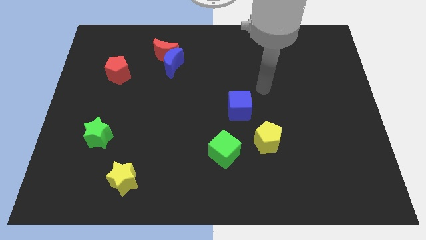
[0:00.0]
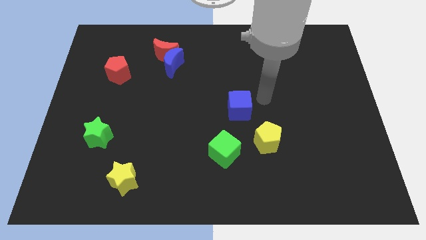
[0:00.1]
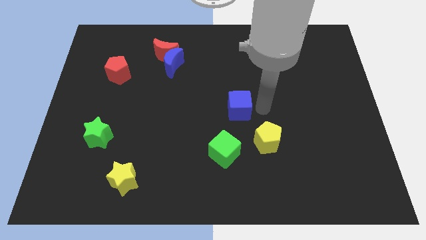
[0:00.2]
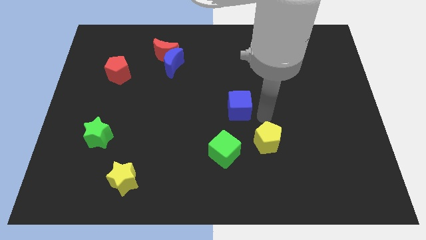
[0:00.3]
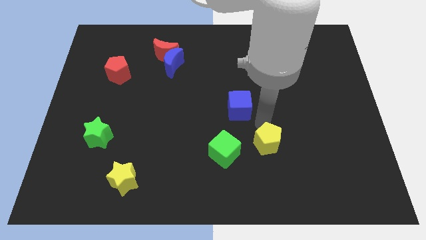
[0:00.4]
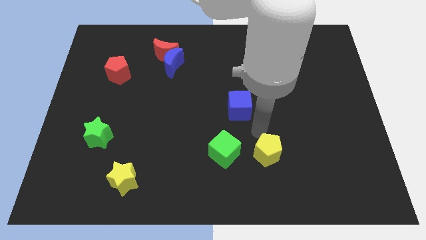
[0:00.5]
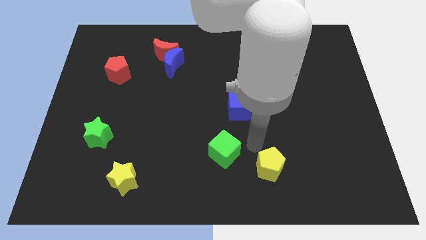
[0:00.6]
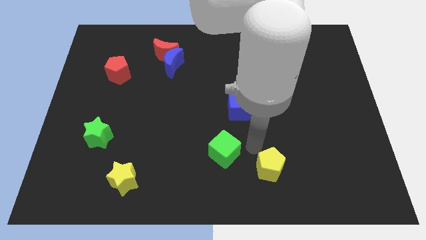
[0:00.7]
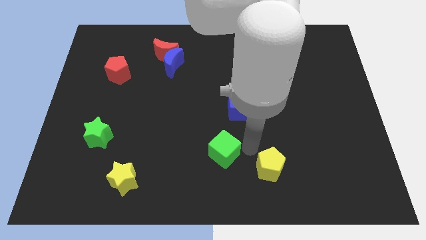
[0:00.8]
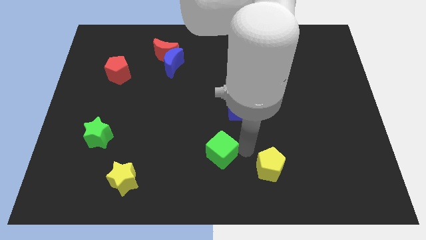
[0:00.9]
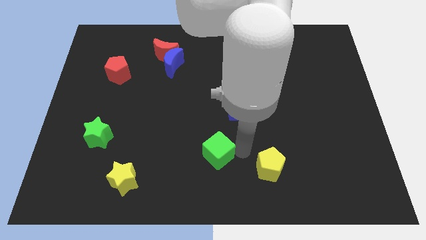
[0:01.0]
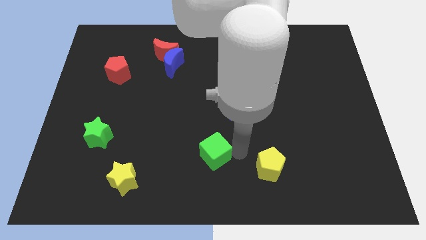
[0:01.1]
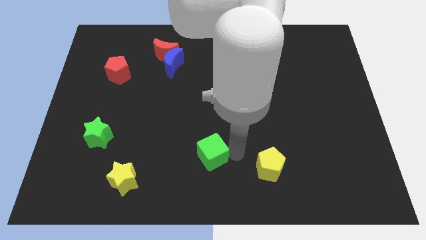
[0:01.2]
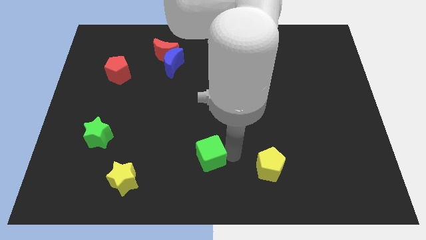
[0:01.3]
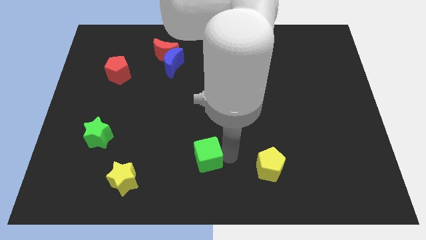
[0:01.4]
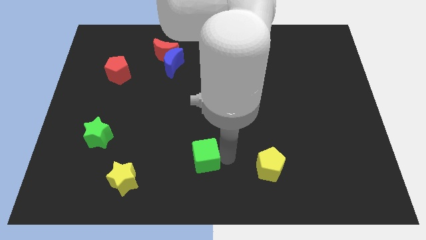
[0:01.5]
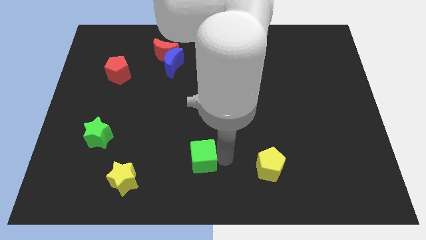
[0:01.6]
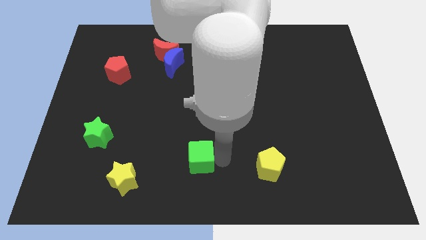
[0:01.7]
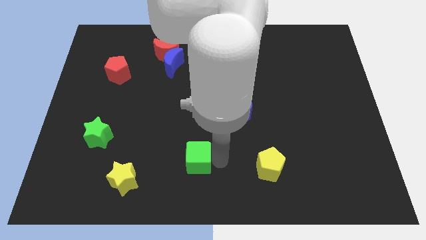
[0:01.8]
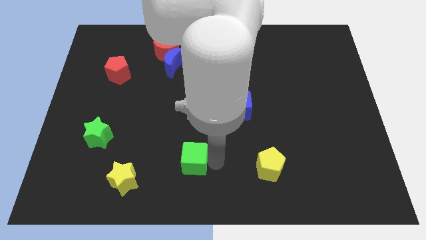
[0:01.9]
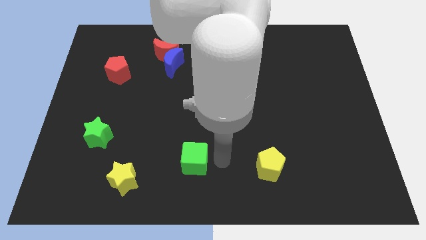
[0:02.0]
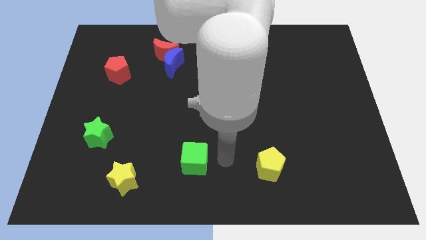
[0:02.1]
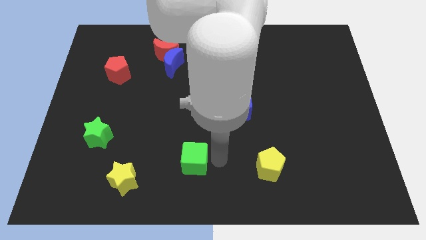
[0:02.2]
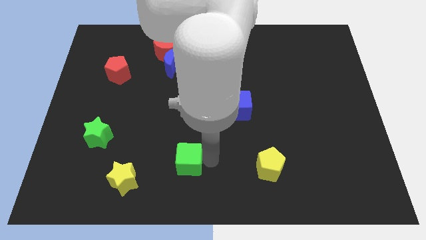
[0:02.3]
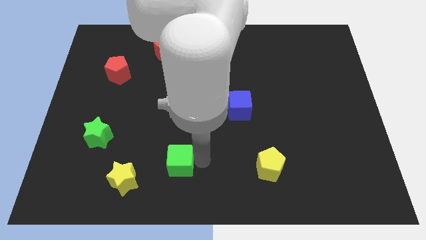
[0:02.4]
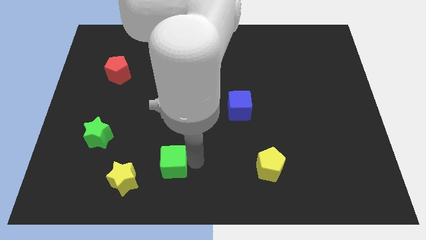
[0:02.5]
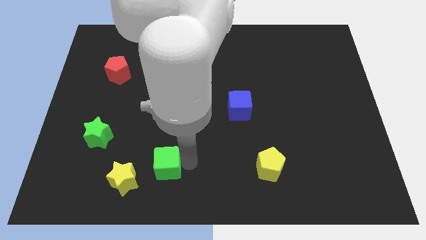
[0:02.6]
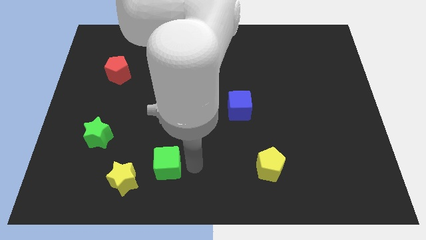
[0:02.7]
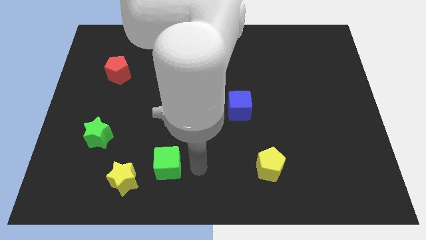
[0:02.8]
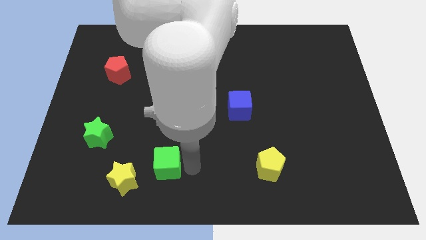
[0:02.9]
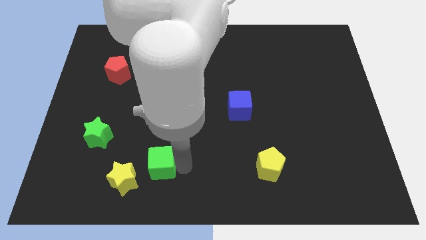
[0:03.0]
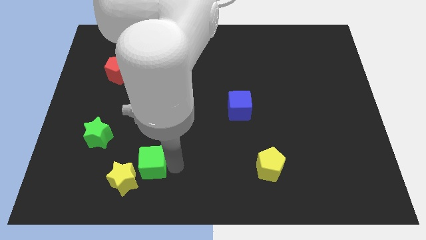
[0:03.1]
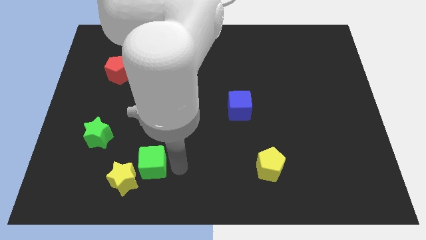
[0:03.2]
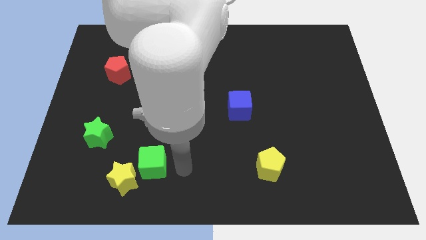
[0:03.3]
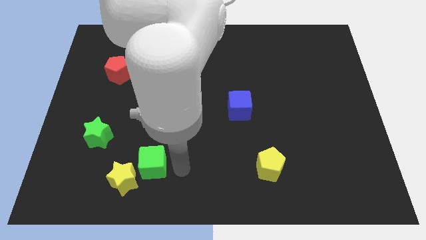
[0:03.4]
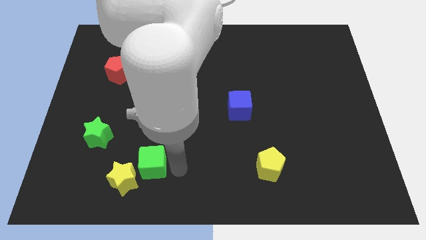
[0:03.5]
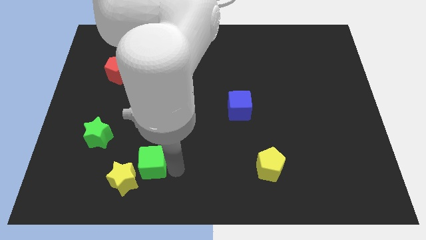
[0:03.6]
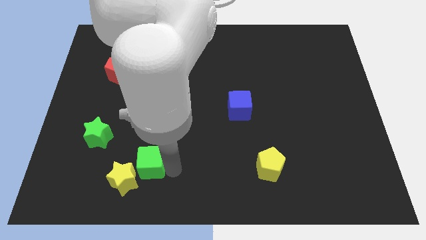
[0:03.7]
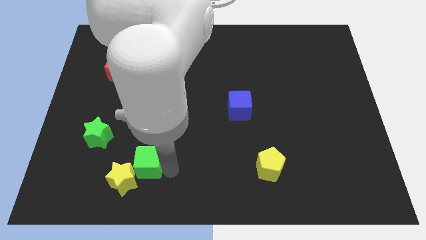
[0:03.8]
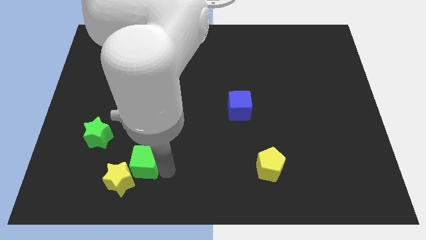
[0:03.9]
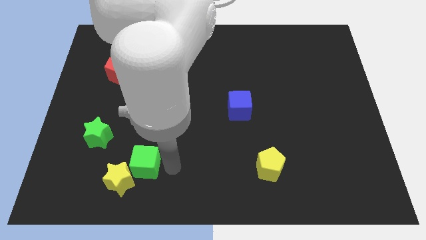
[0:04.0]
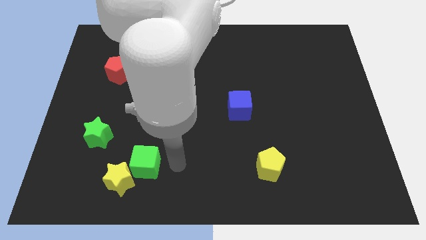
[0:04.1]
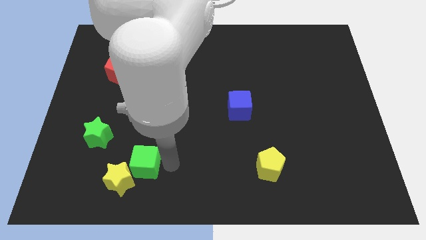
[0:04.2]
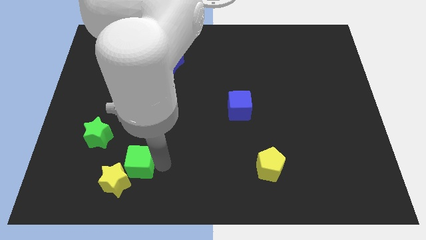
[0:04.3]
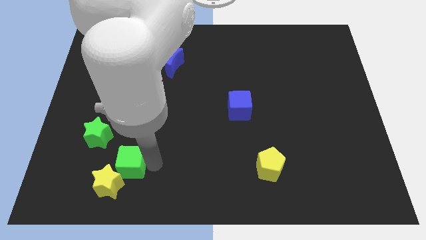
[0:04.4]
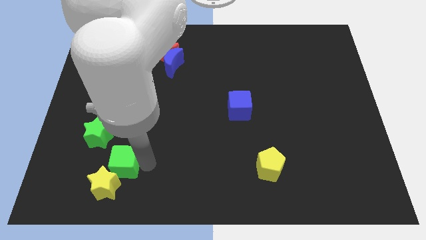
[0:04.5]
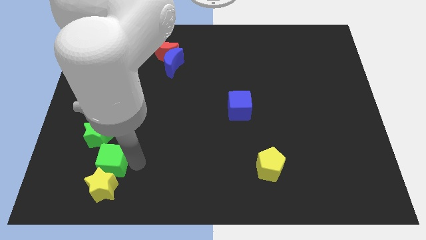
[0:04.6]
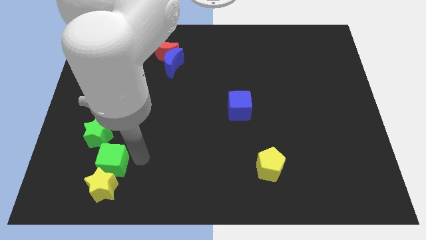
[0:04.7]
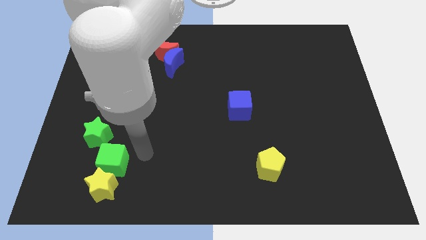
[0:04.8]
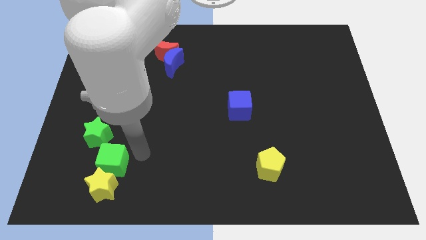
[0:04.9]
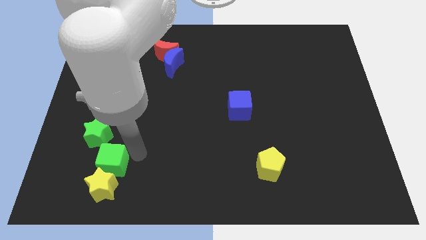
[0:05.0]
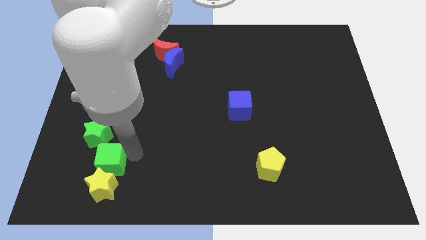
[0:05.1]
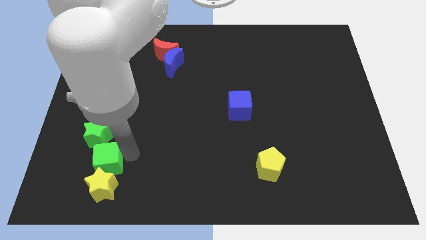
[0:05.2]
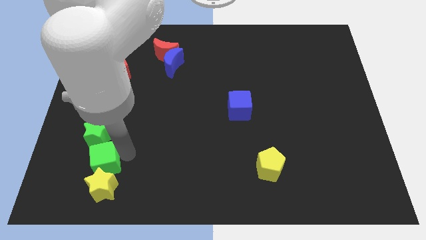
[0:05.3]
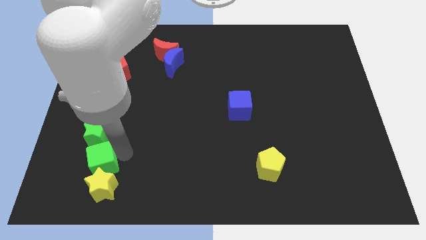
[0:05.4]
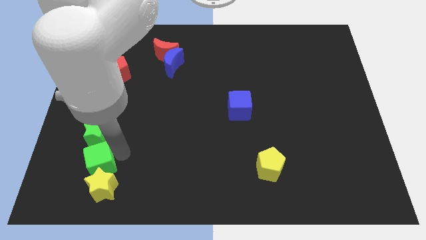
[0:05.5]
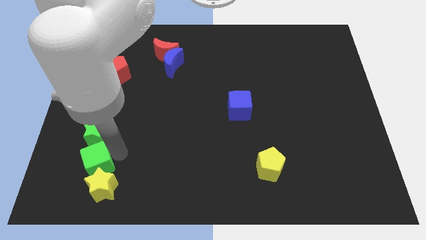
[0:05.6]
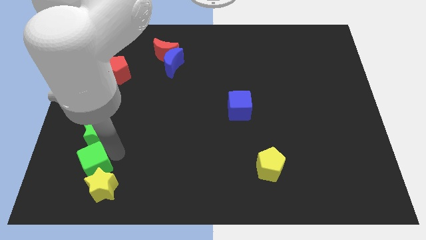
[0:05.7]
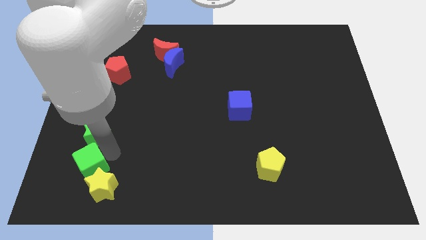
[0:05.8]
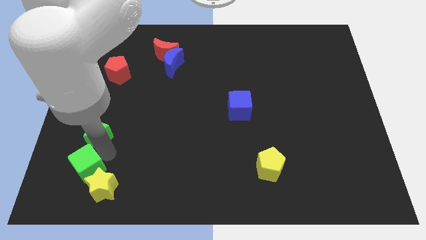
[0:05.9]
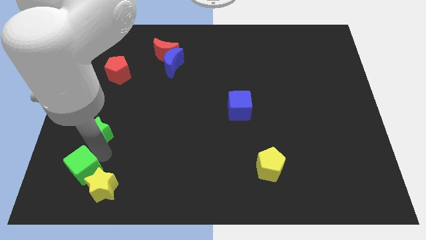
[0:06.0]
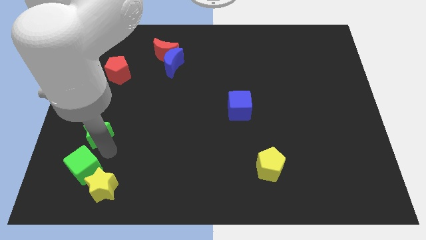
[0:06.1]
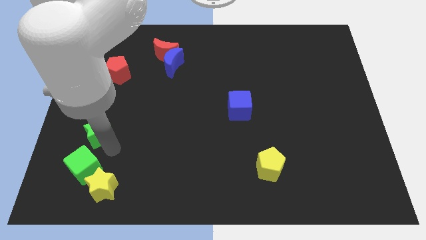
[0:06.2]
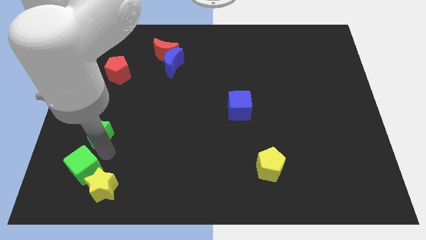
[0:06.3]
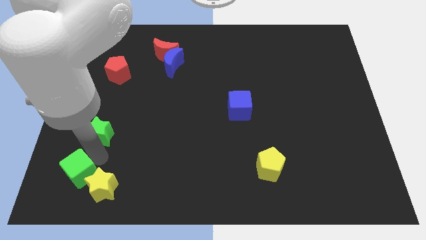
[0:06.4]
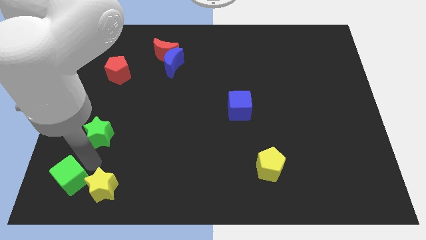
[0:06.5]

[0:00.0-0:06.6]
put the green cube to the bottom left of the board
